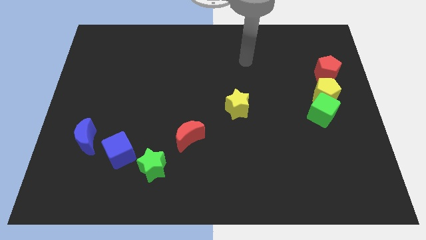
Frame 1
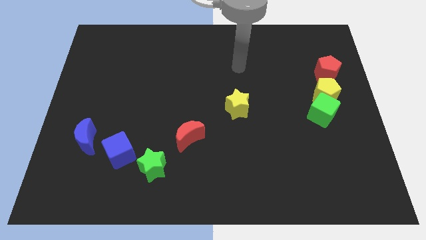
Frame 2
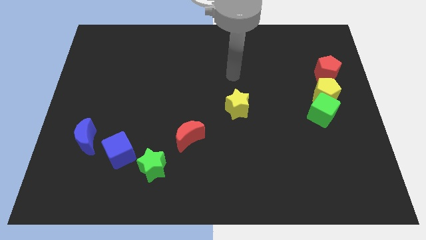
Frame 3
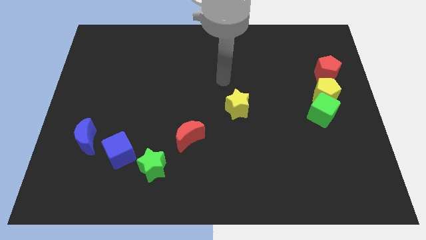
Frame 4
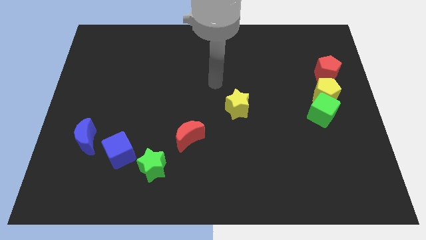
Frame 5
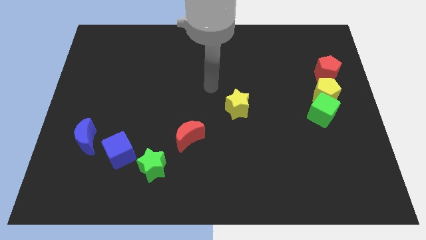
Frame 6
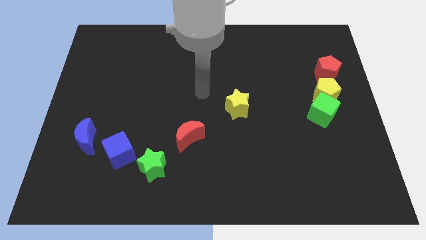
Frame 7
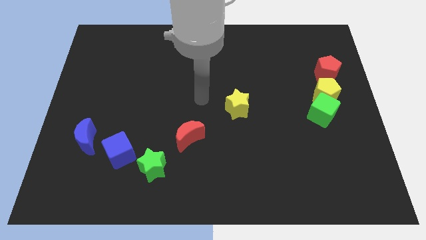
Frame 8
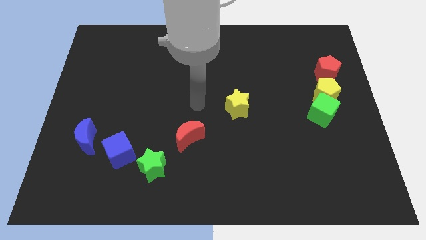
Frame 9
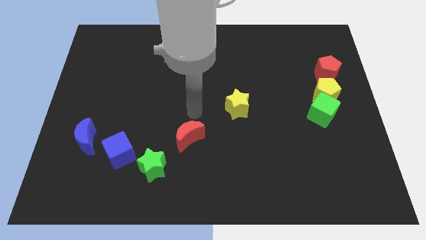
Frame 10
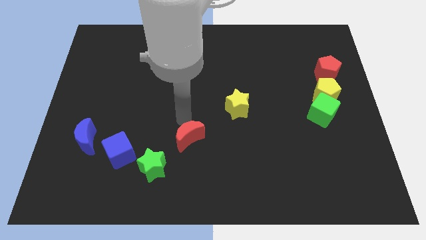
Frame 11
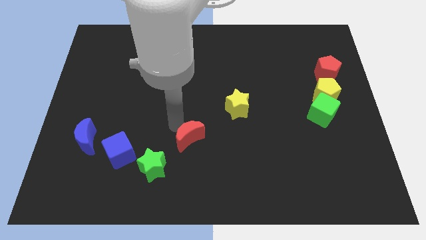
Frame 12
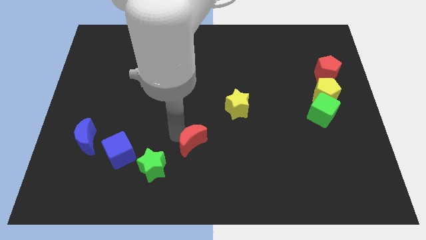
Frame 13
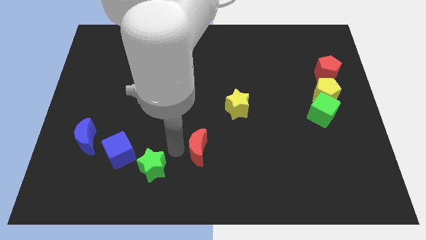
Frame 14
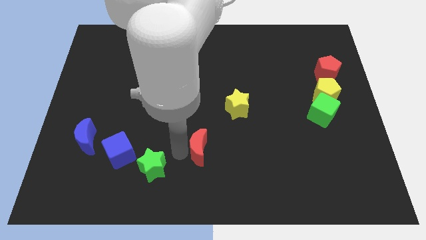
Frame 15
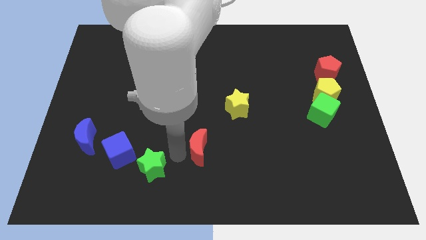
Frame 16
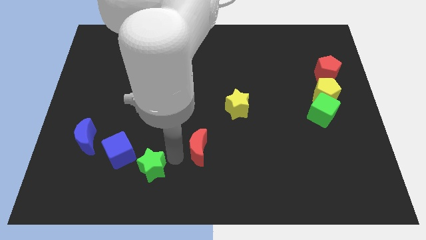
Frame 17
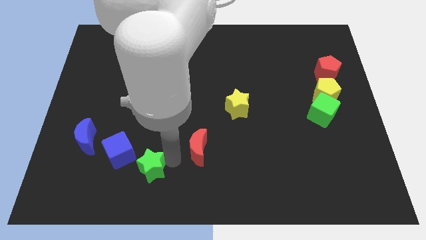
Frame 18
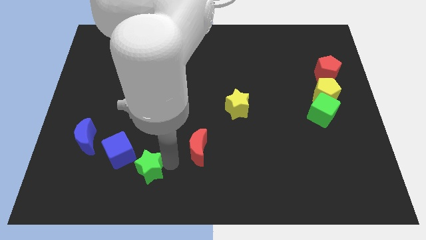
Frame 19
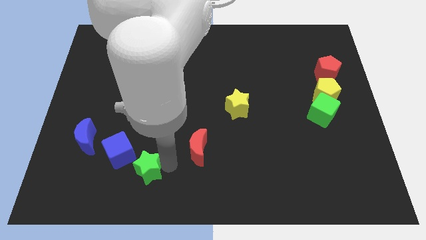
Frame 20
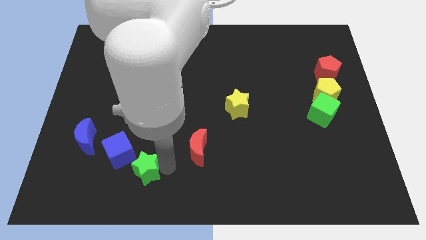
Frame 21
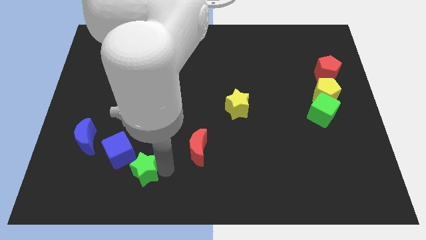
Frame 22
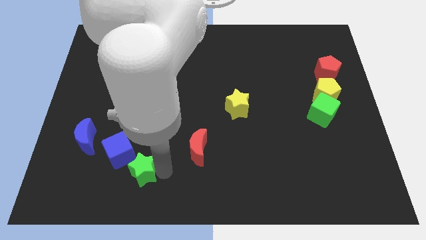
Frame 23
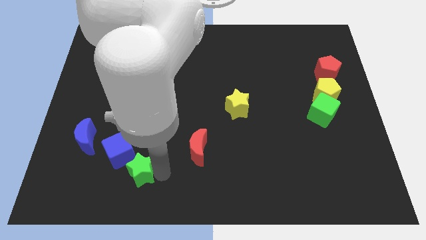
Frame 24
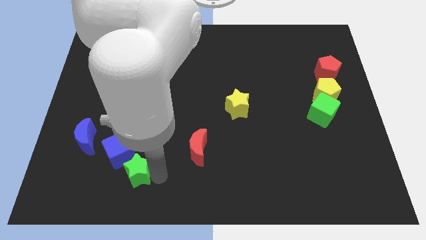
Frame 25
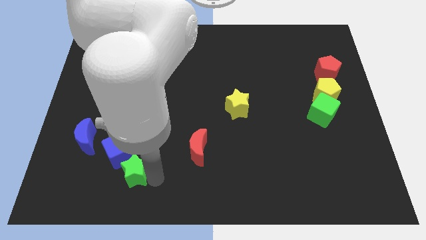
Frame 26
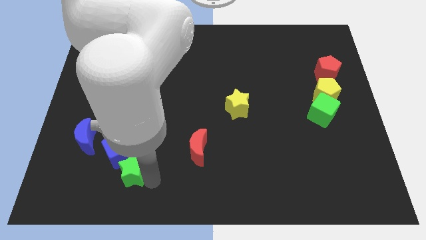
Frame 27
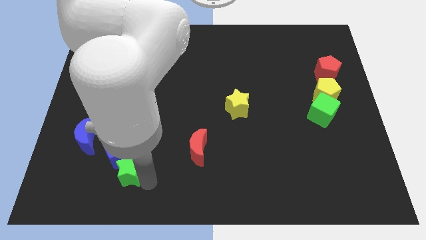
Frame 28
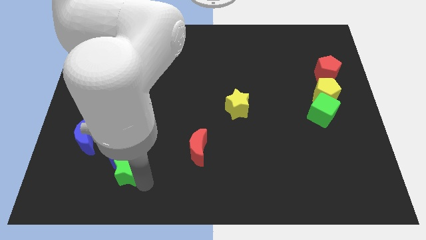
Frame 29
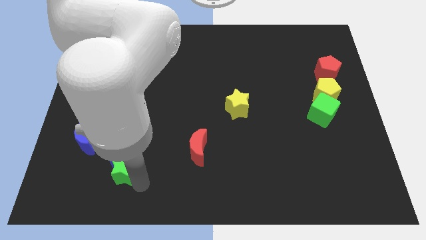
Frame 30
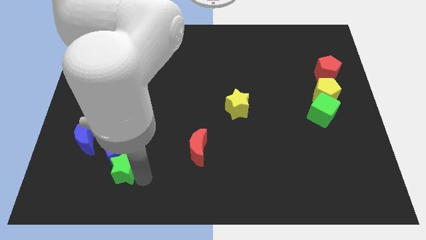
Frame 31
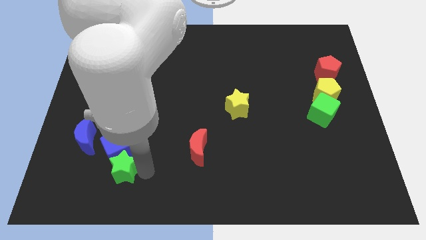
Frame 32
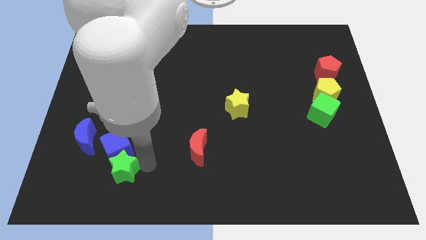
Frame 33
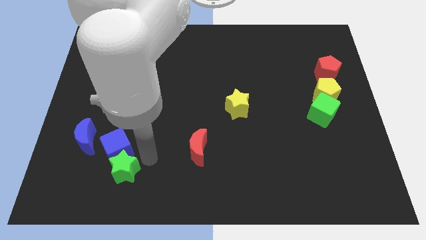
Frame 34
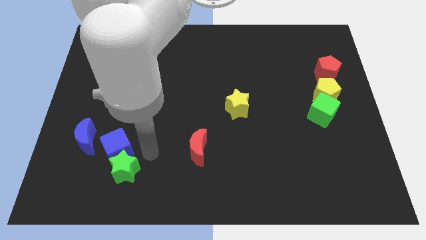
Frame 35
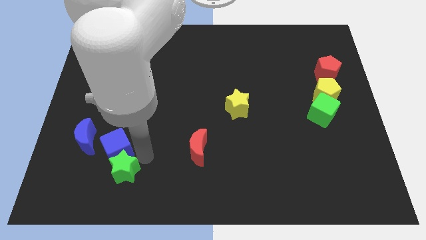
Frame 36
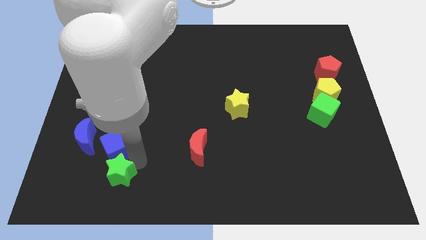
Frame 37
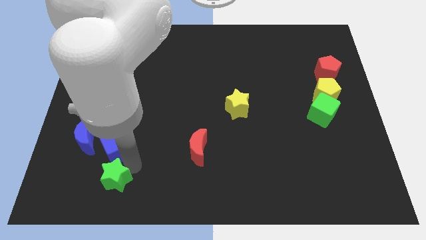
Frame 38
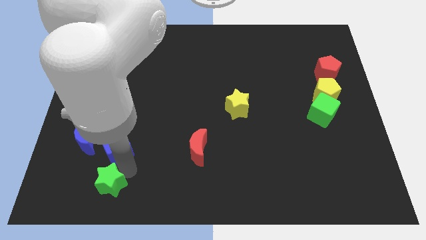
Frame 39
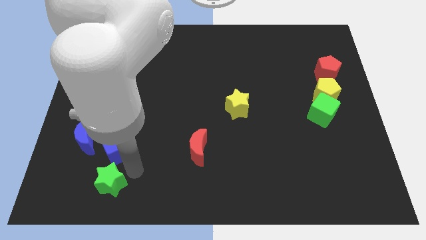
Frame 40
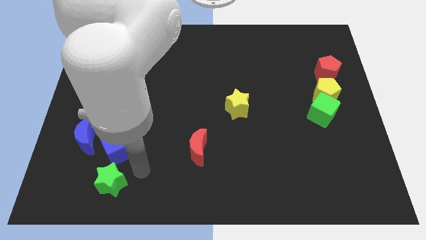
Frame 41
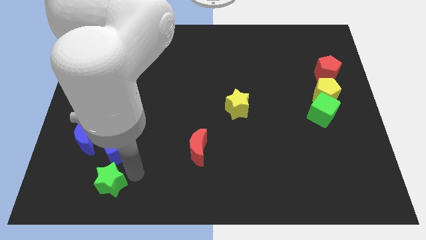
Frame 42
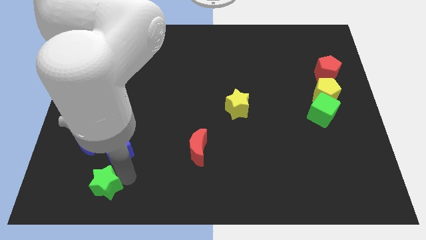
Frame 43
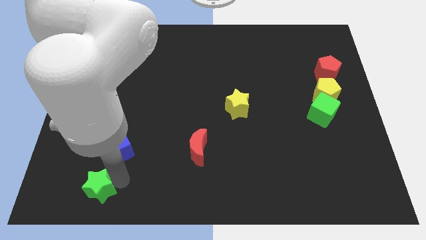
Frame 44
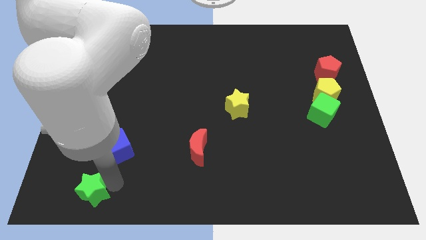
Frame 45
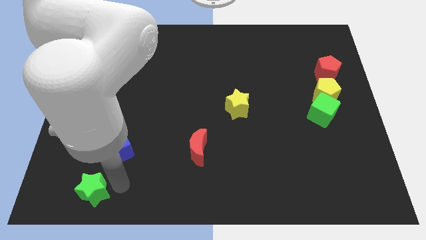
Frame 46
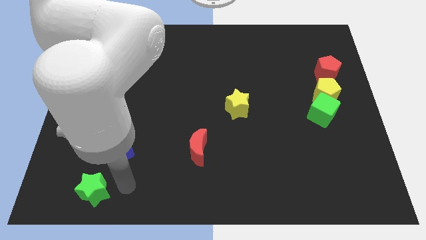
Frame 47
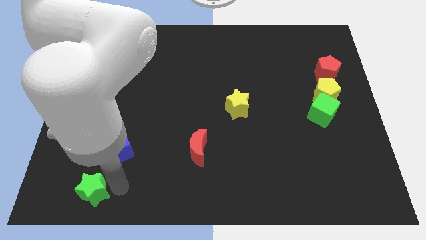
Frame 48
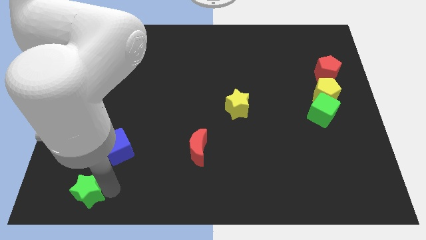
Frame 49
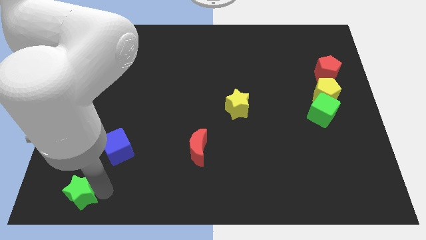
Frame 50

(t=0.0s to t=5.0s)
move the green star to the bottom left of the board

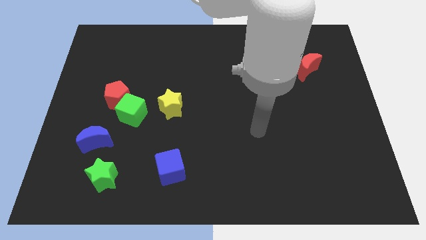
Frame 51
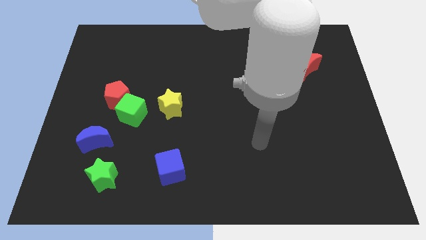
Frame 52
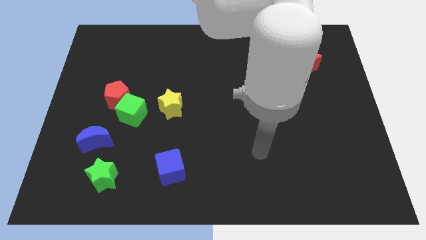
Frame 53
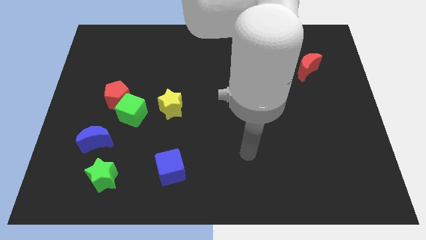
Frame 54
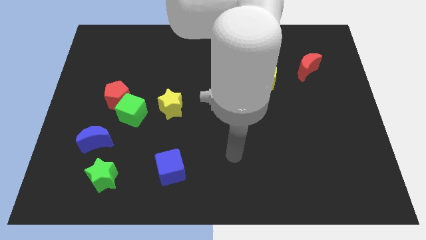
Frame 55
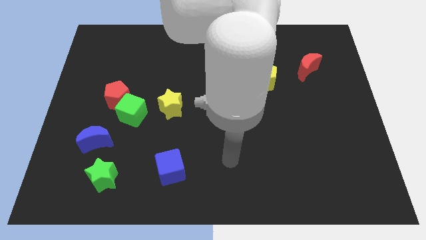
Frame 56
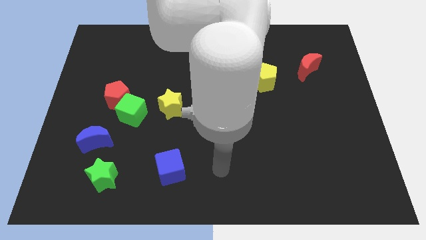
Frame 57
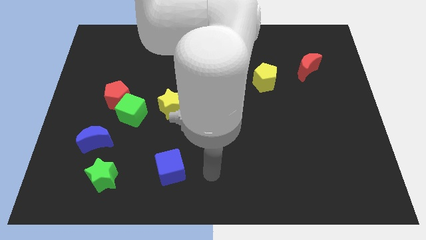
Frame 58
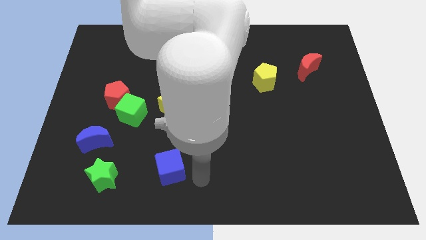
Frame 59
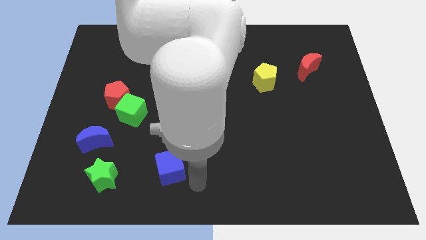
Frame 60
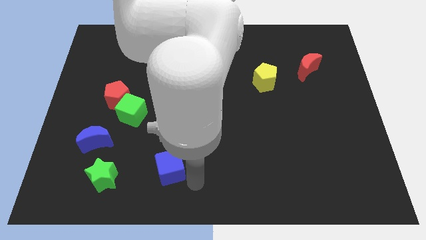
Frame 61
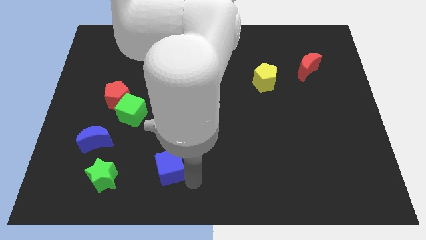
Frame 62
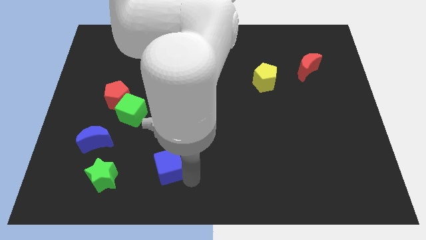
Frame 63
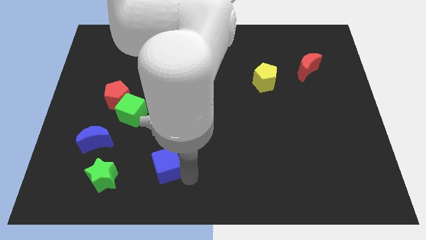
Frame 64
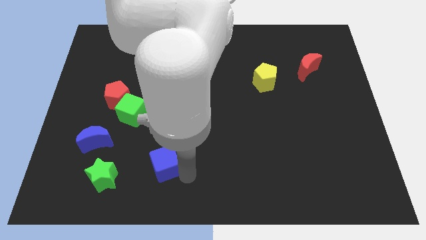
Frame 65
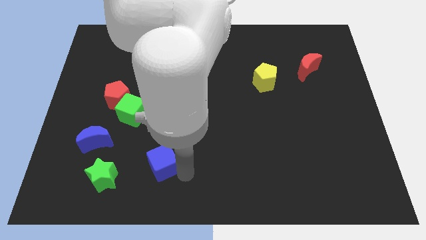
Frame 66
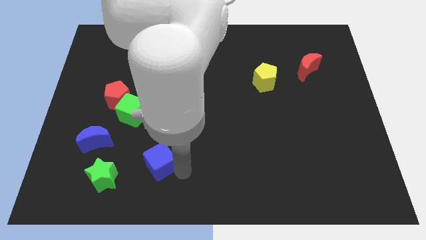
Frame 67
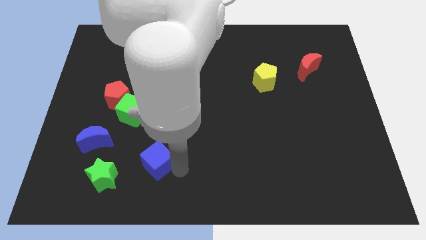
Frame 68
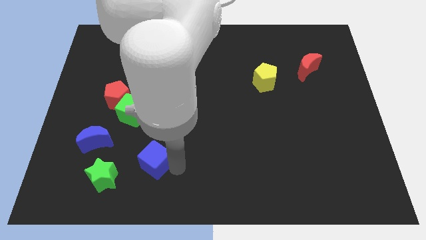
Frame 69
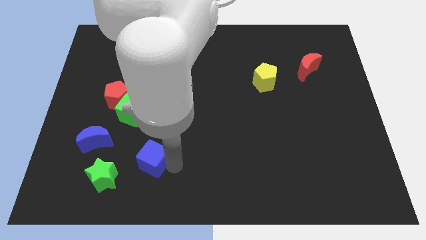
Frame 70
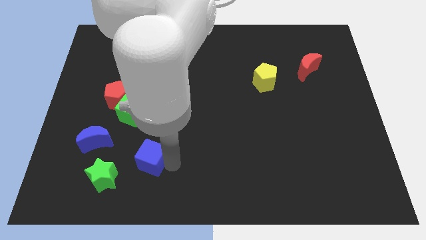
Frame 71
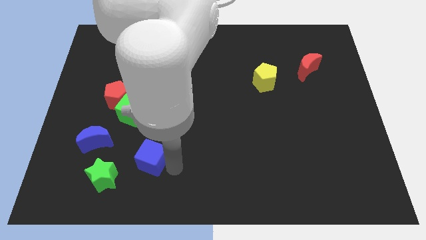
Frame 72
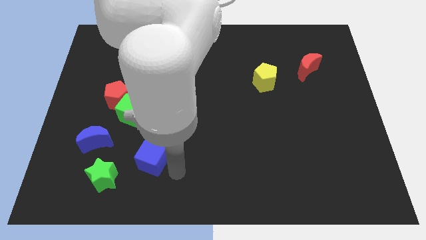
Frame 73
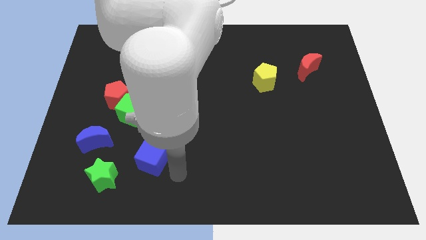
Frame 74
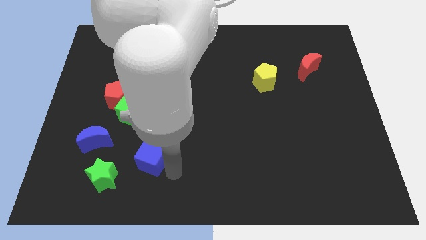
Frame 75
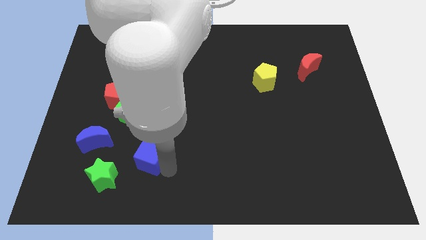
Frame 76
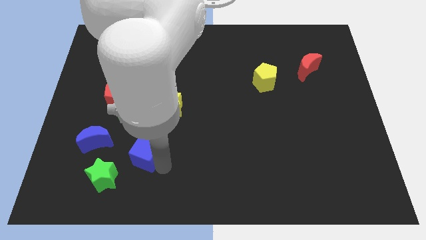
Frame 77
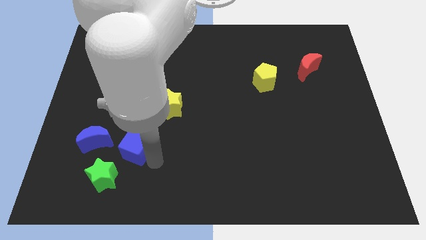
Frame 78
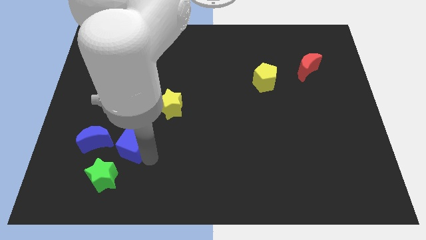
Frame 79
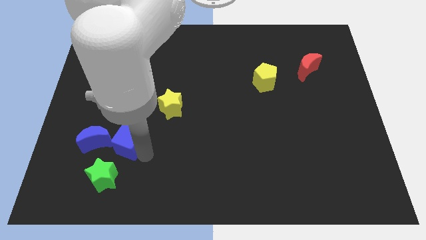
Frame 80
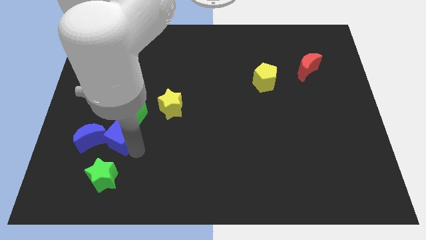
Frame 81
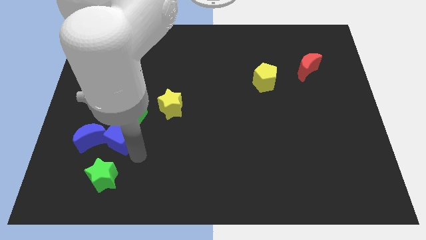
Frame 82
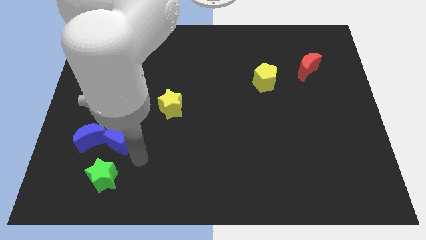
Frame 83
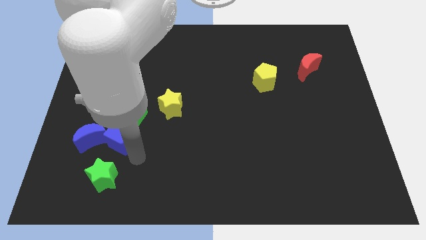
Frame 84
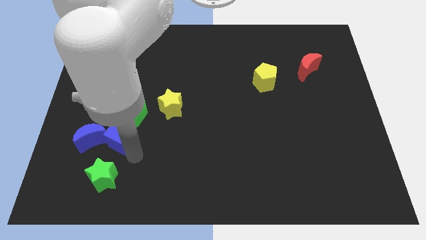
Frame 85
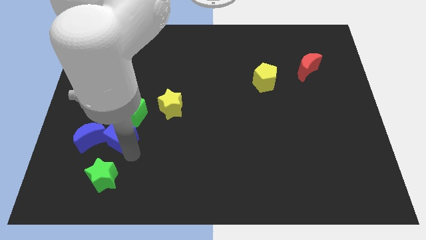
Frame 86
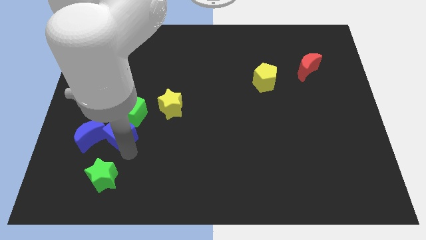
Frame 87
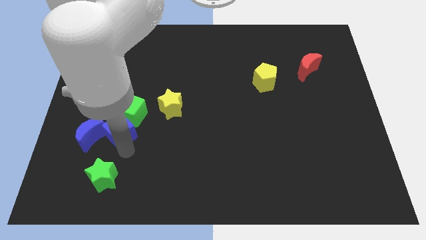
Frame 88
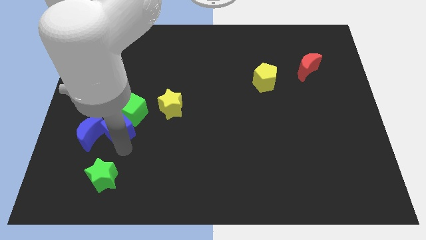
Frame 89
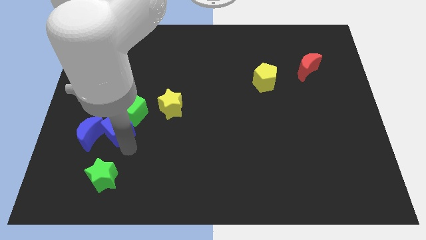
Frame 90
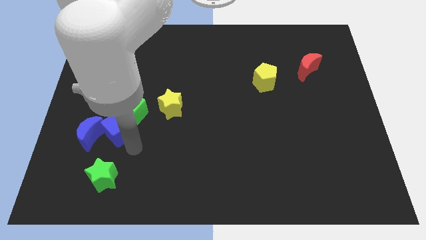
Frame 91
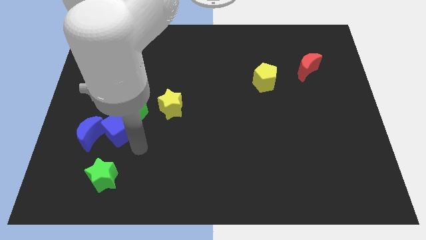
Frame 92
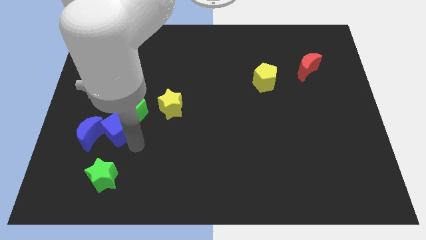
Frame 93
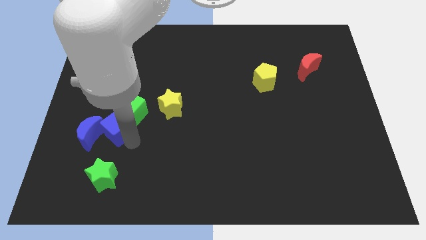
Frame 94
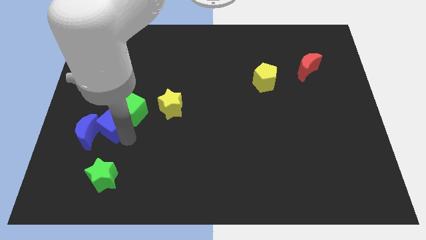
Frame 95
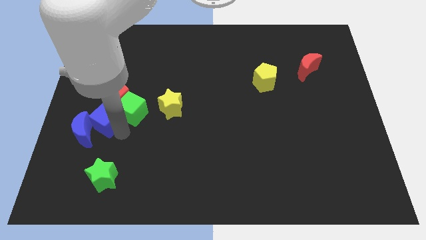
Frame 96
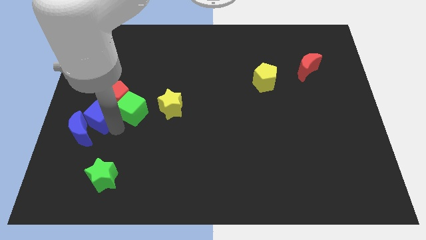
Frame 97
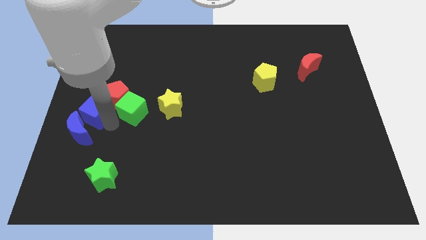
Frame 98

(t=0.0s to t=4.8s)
push the blue cube to the left side of the board
